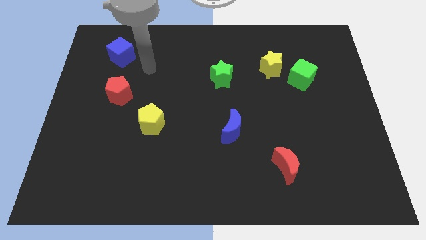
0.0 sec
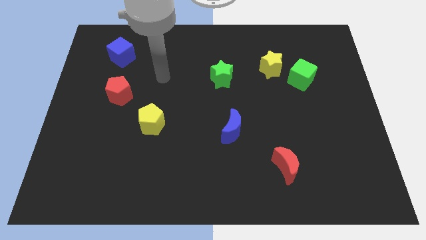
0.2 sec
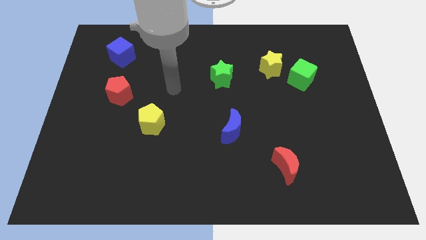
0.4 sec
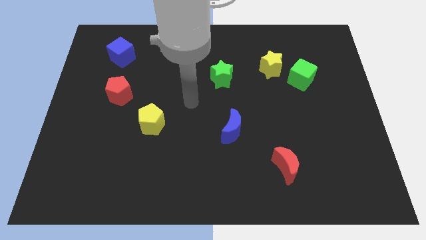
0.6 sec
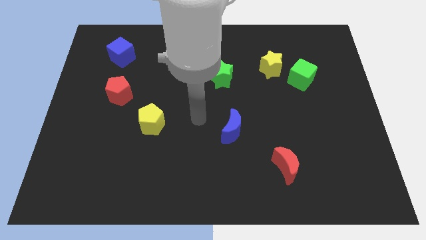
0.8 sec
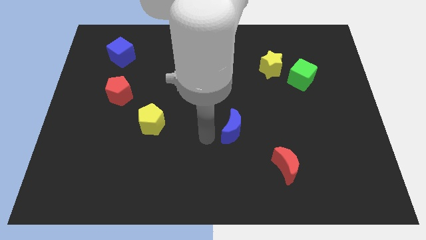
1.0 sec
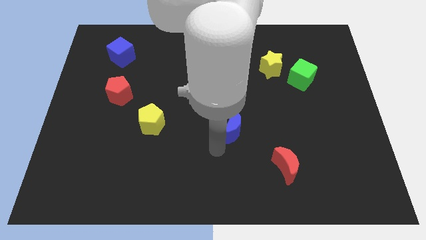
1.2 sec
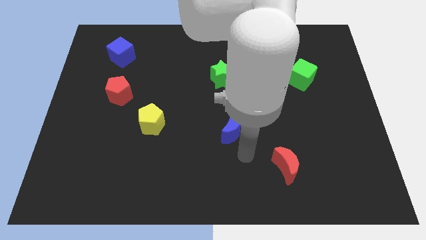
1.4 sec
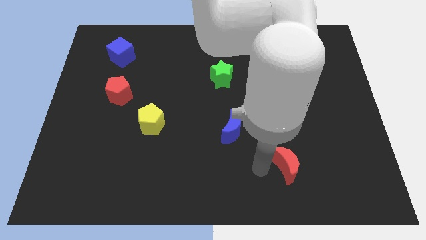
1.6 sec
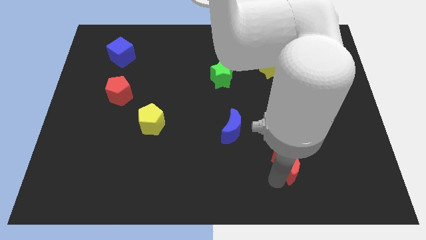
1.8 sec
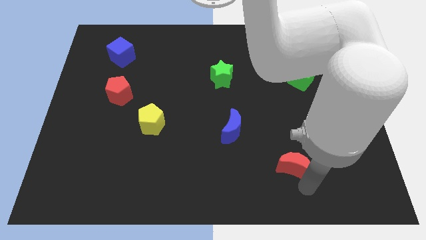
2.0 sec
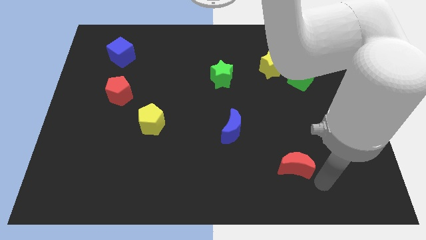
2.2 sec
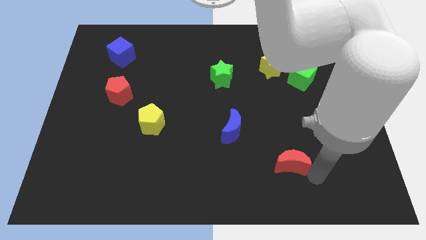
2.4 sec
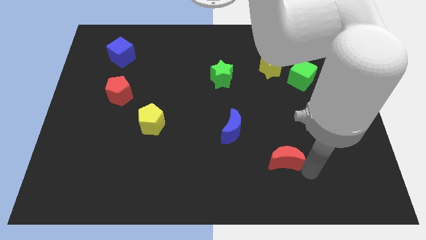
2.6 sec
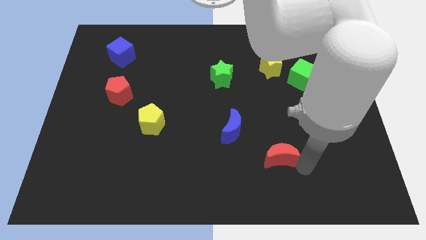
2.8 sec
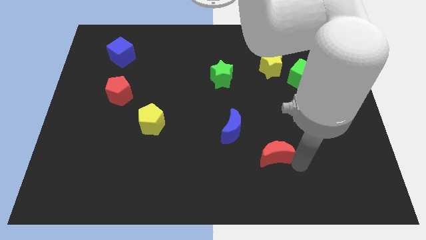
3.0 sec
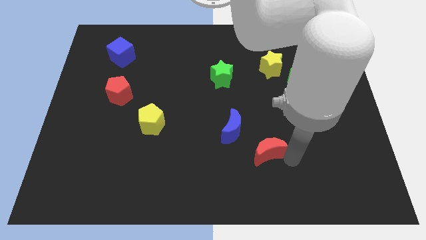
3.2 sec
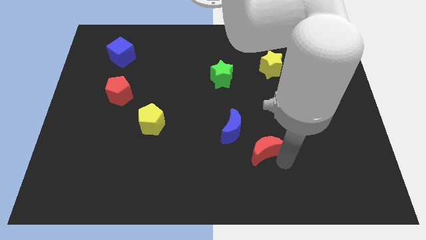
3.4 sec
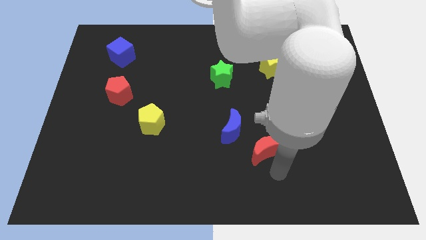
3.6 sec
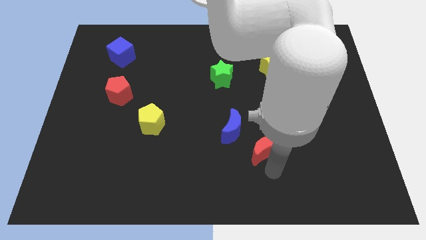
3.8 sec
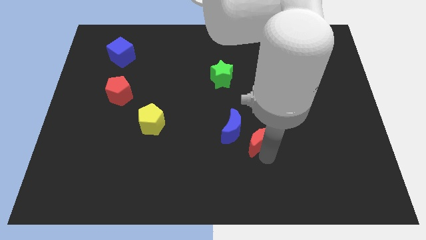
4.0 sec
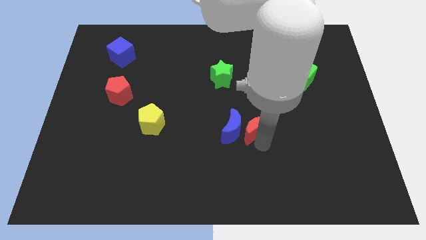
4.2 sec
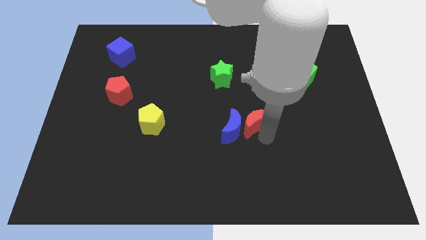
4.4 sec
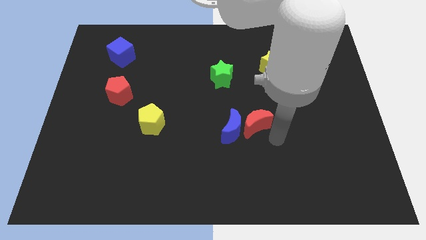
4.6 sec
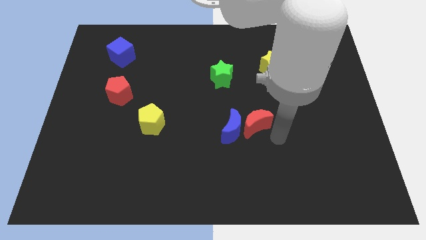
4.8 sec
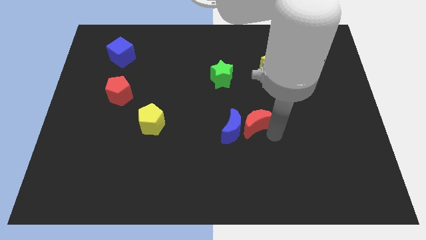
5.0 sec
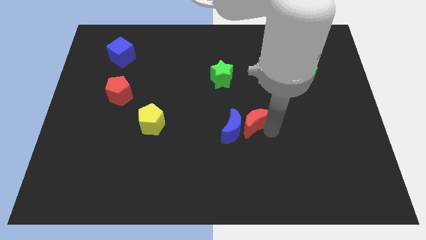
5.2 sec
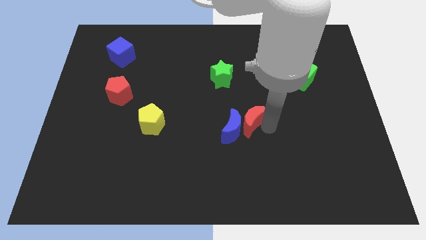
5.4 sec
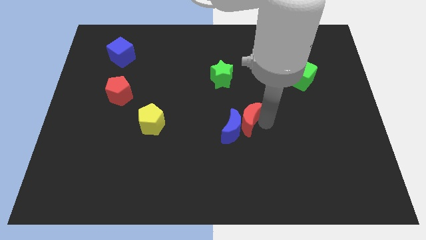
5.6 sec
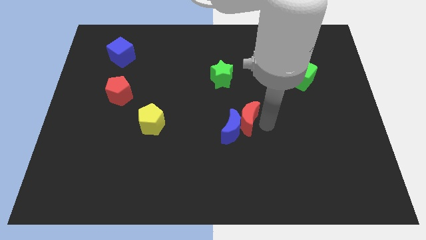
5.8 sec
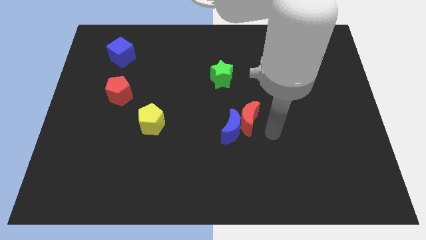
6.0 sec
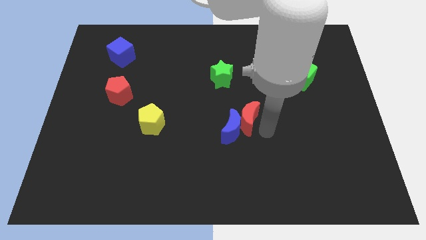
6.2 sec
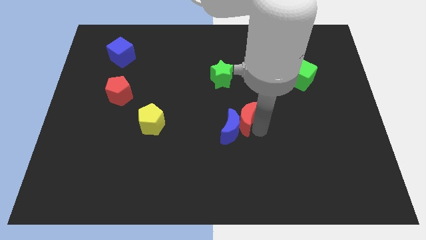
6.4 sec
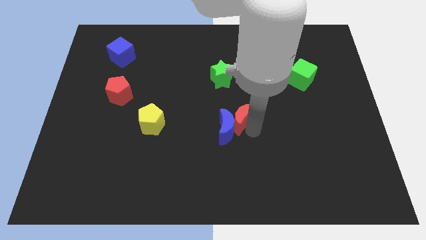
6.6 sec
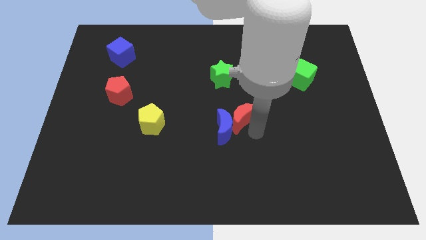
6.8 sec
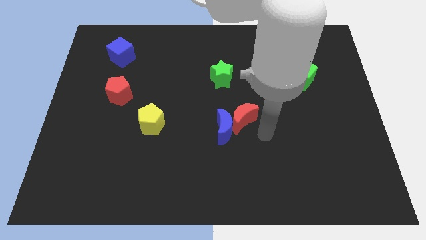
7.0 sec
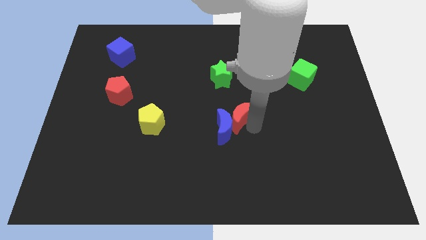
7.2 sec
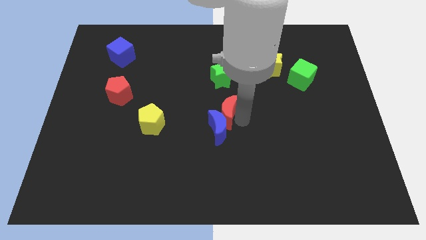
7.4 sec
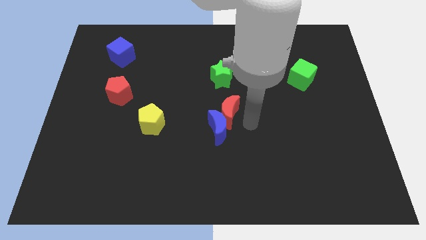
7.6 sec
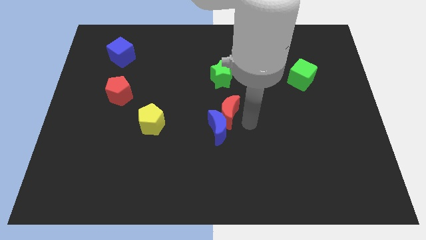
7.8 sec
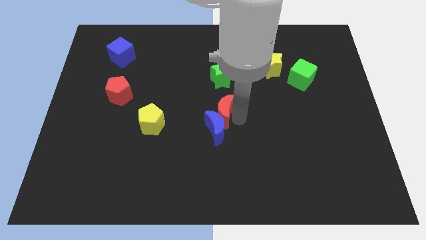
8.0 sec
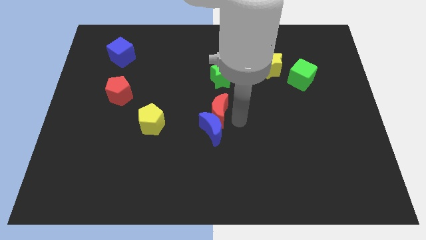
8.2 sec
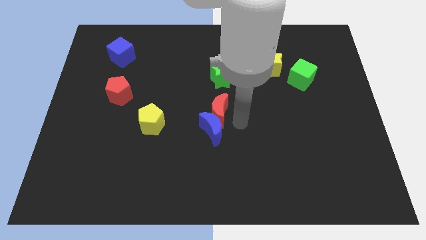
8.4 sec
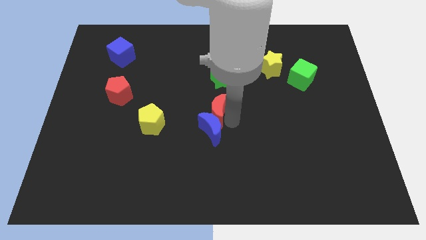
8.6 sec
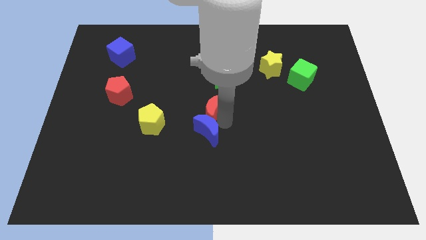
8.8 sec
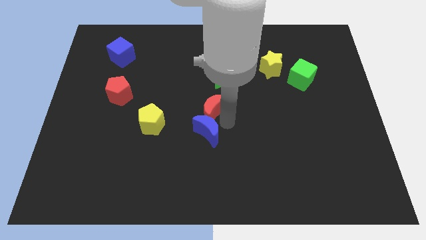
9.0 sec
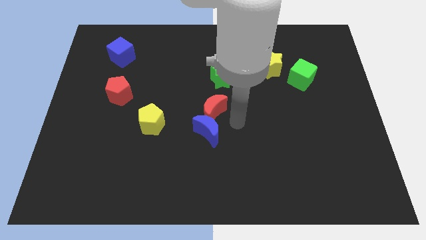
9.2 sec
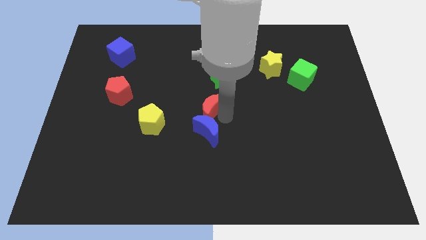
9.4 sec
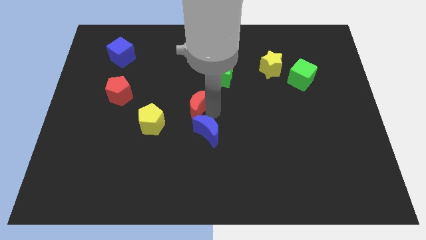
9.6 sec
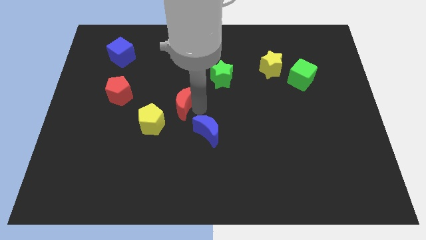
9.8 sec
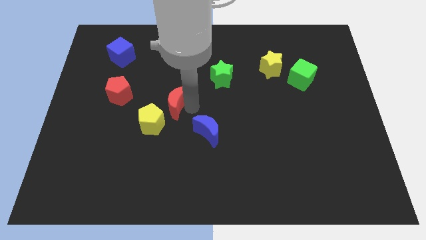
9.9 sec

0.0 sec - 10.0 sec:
push the red moon to the right of the red pentagon
